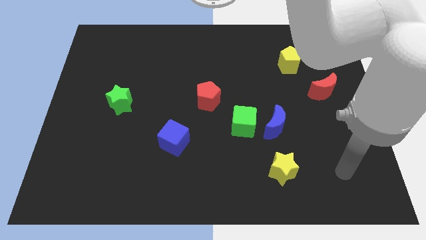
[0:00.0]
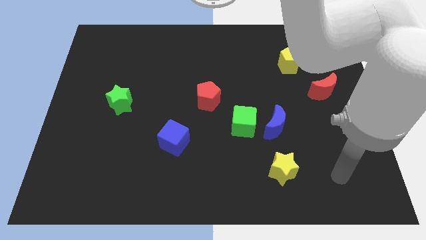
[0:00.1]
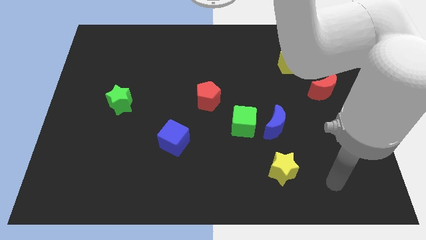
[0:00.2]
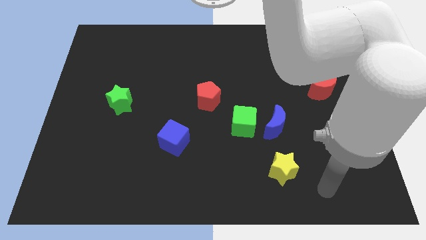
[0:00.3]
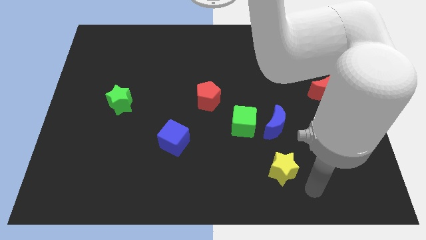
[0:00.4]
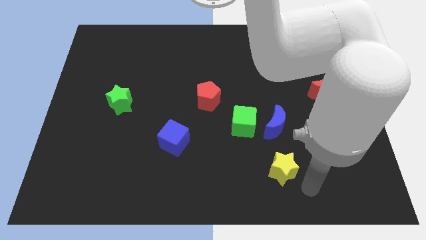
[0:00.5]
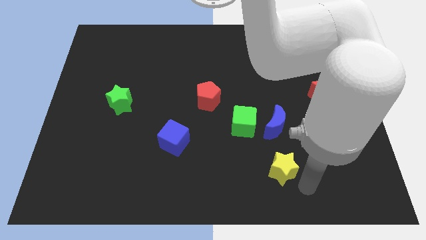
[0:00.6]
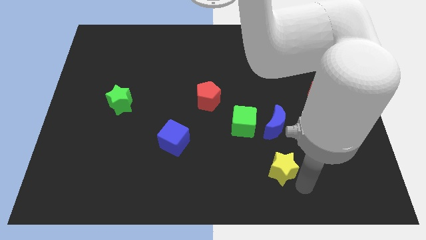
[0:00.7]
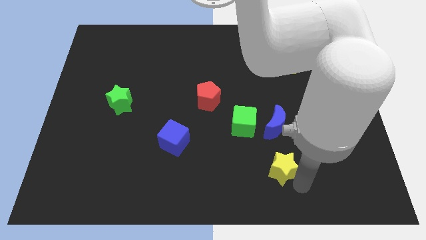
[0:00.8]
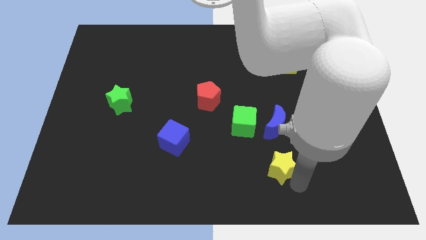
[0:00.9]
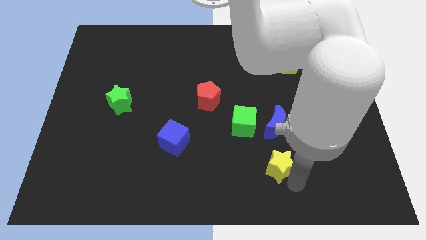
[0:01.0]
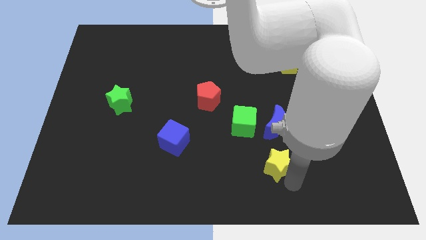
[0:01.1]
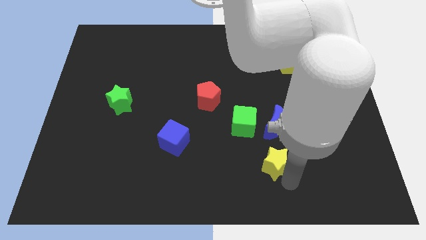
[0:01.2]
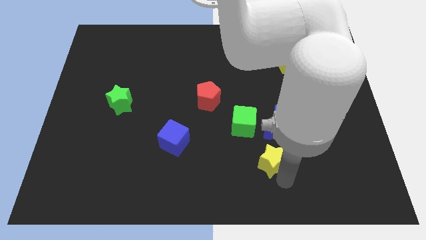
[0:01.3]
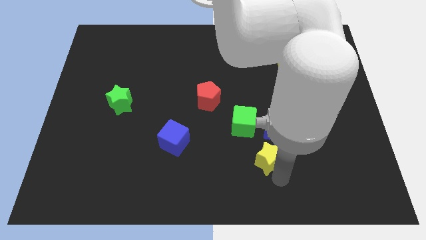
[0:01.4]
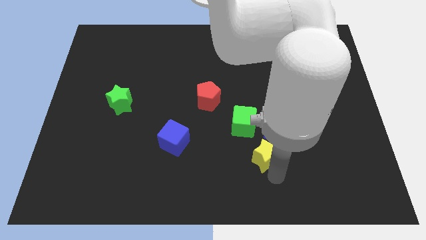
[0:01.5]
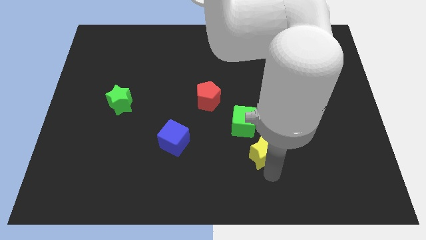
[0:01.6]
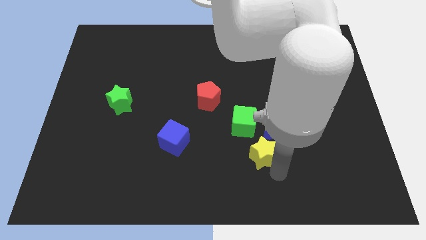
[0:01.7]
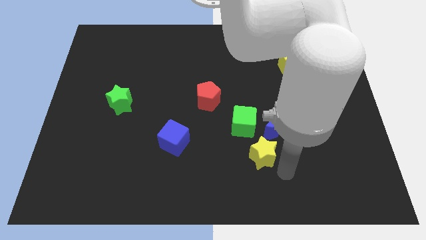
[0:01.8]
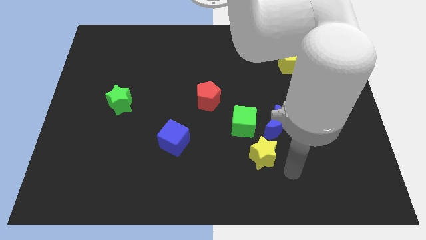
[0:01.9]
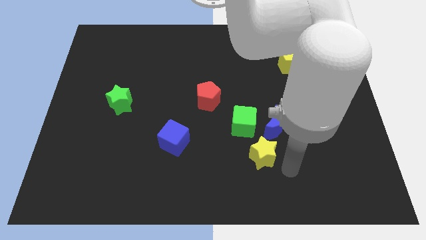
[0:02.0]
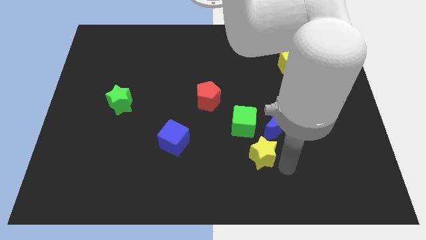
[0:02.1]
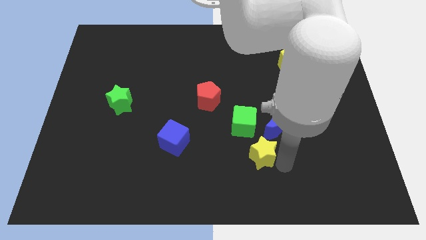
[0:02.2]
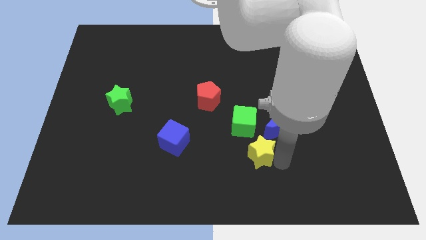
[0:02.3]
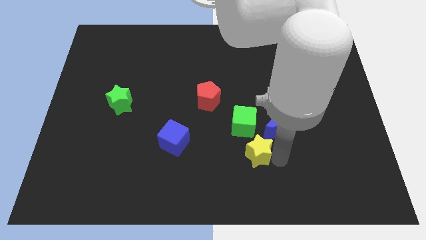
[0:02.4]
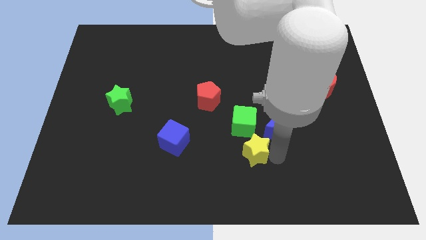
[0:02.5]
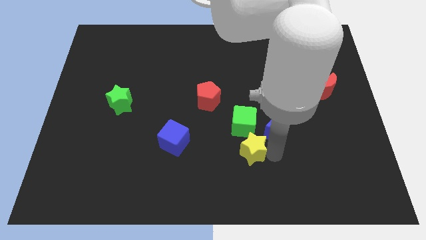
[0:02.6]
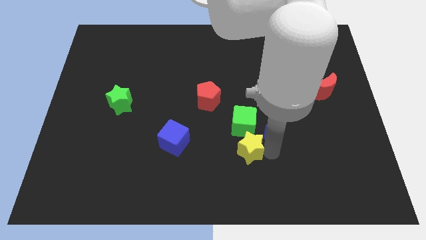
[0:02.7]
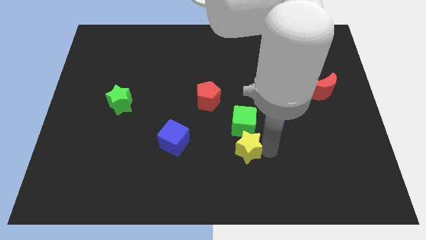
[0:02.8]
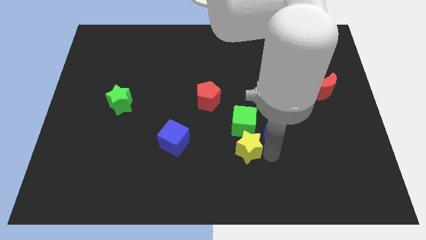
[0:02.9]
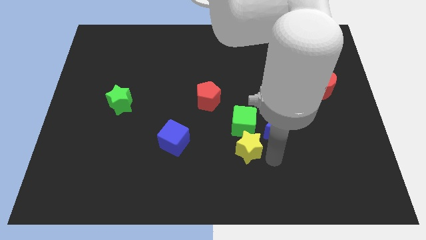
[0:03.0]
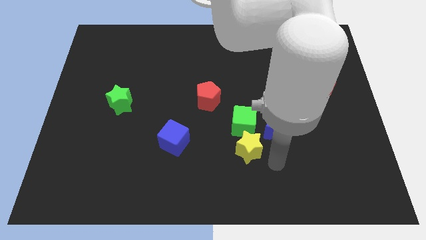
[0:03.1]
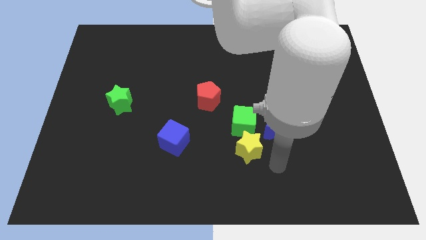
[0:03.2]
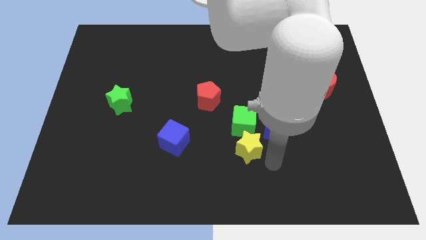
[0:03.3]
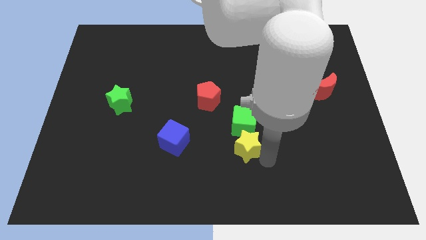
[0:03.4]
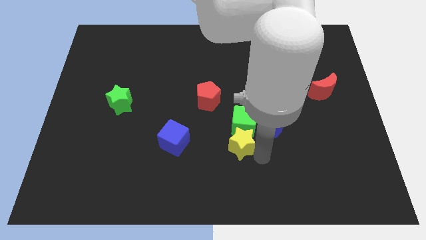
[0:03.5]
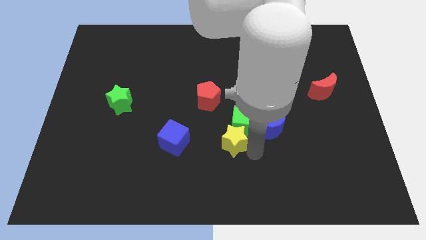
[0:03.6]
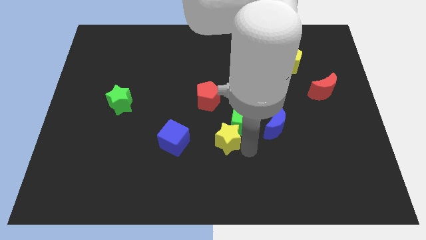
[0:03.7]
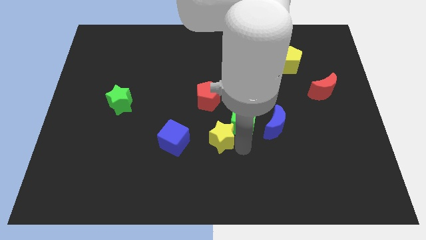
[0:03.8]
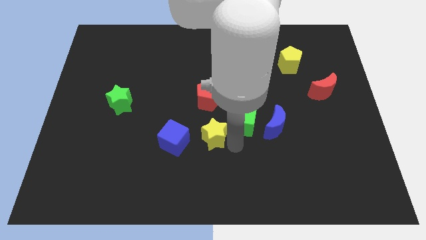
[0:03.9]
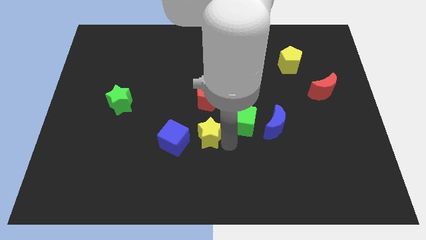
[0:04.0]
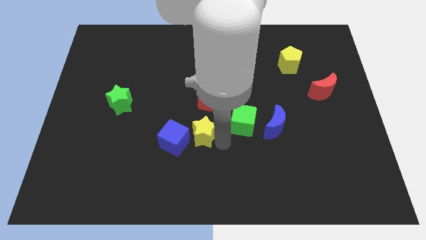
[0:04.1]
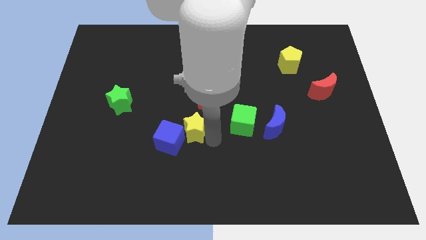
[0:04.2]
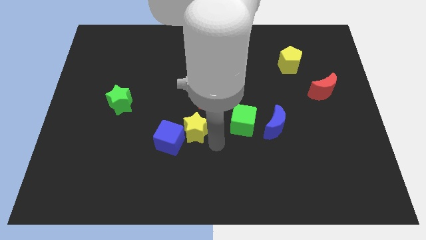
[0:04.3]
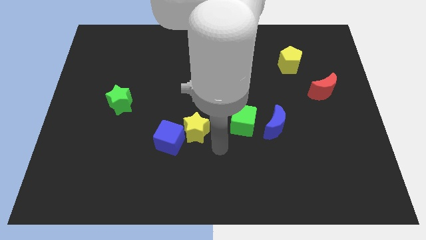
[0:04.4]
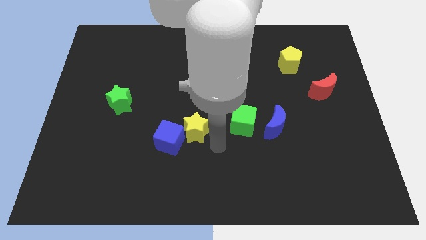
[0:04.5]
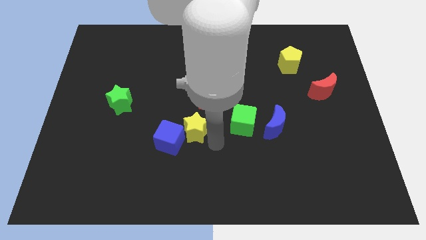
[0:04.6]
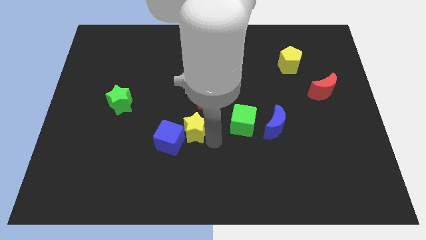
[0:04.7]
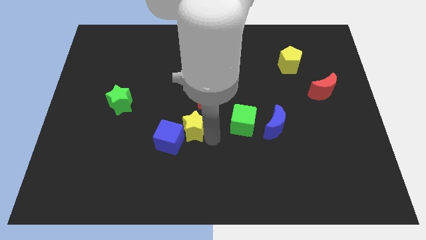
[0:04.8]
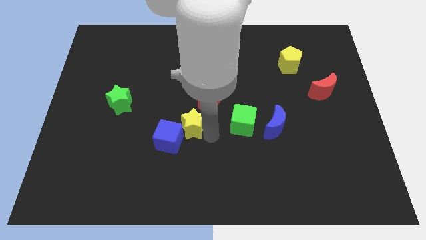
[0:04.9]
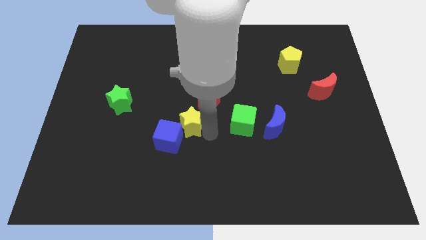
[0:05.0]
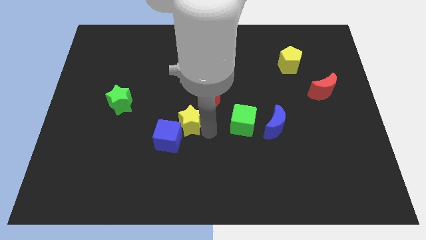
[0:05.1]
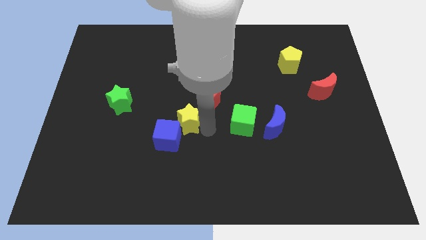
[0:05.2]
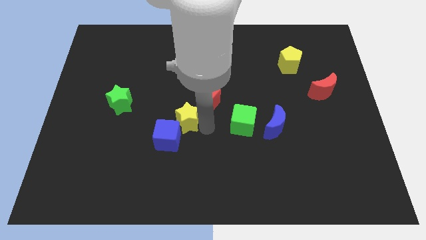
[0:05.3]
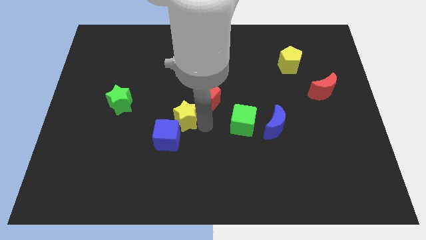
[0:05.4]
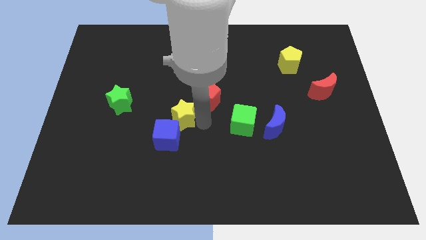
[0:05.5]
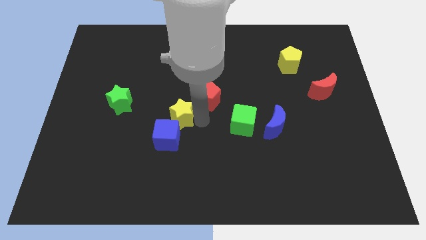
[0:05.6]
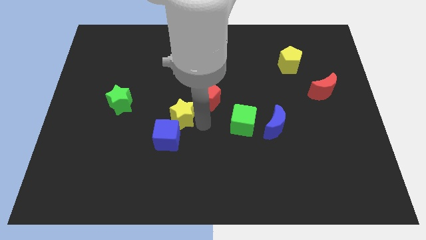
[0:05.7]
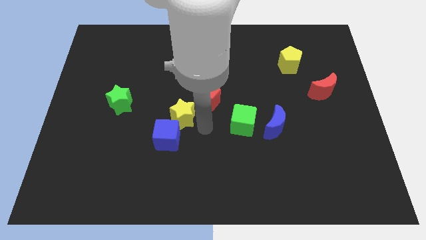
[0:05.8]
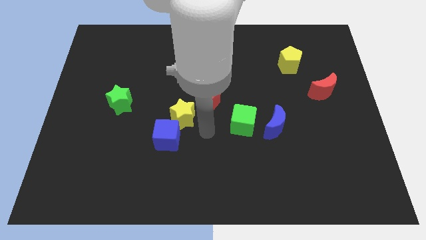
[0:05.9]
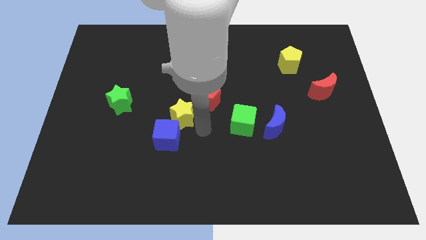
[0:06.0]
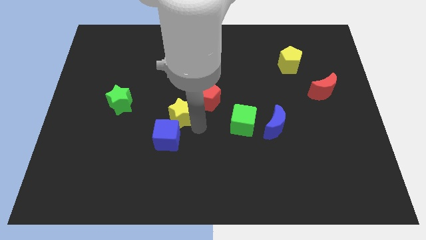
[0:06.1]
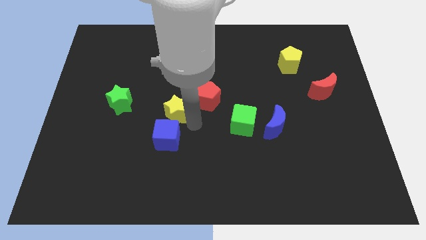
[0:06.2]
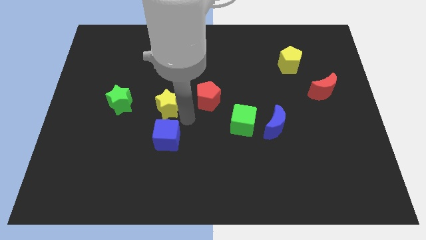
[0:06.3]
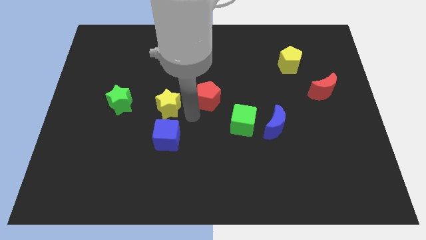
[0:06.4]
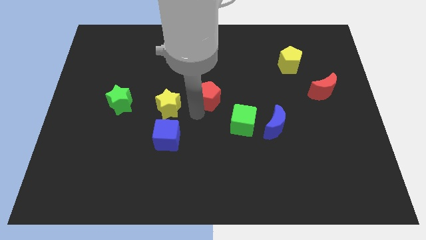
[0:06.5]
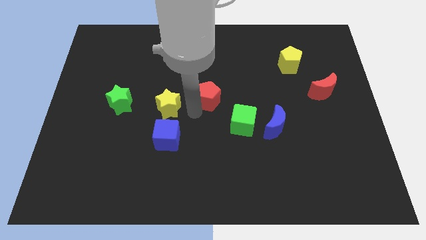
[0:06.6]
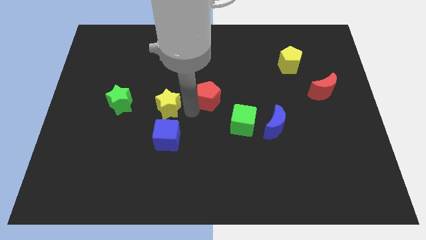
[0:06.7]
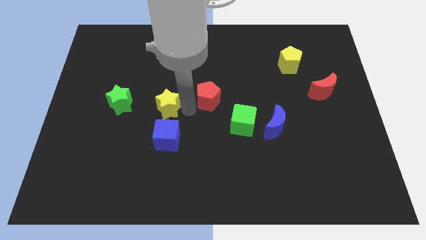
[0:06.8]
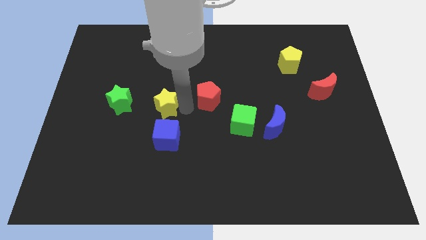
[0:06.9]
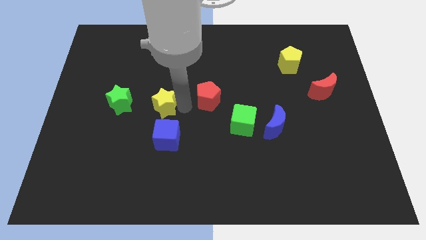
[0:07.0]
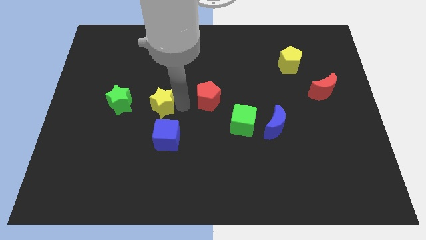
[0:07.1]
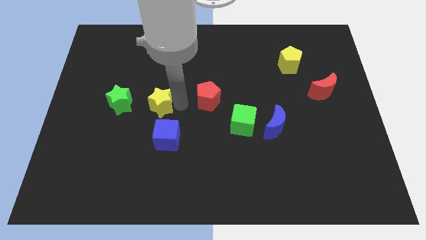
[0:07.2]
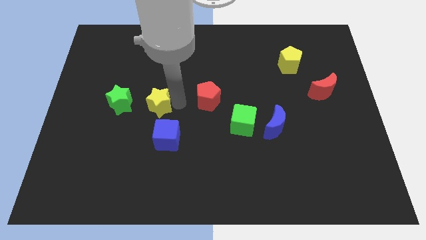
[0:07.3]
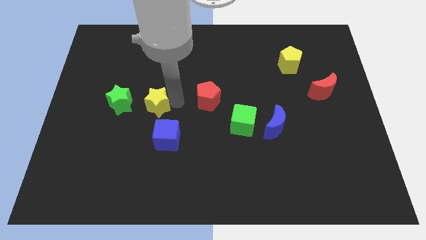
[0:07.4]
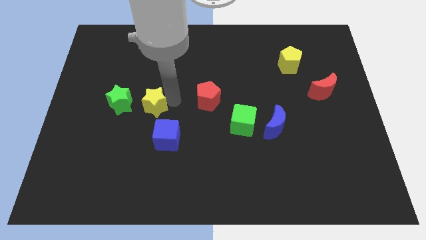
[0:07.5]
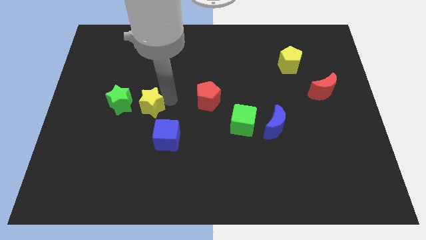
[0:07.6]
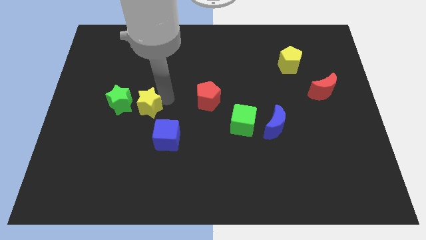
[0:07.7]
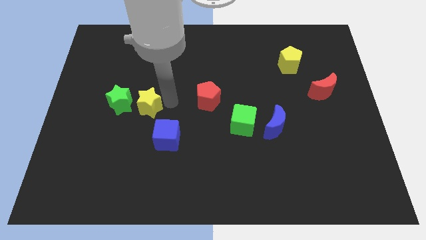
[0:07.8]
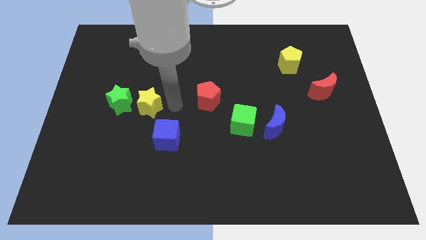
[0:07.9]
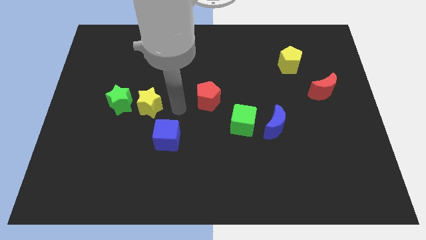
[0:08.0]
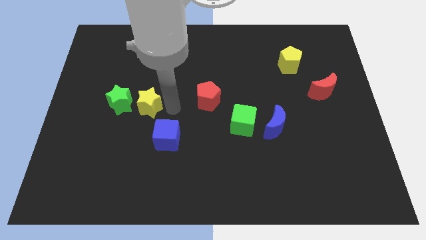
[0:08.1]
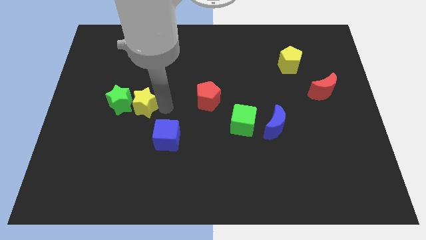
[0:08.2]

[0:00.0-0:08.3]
push the yellow star to the green star
